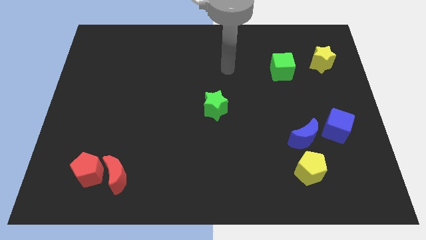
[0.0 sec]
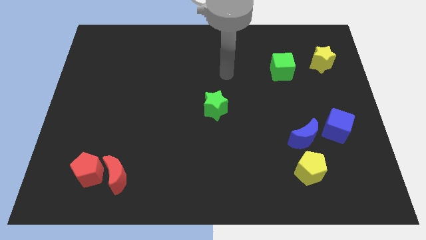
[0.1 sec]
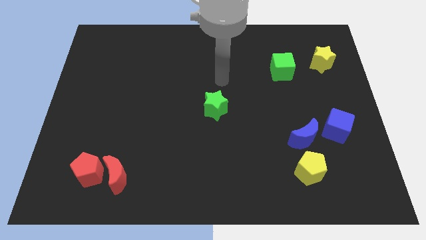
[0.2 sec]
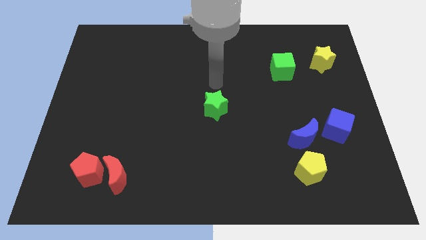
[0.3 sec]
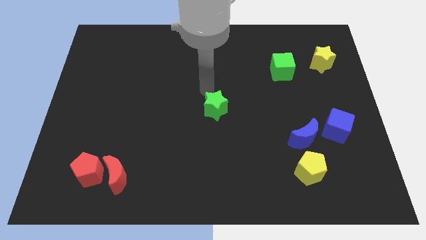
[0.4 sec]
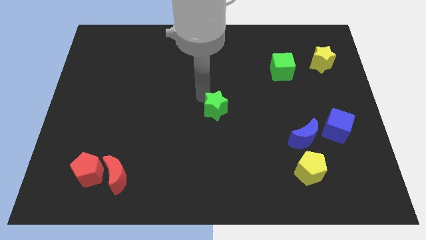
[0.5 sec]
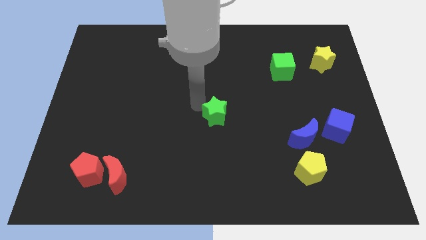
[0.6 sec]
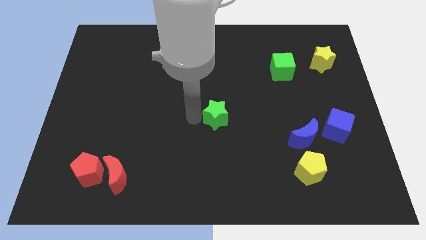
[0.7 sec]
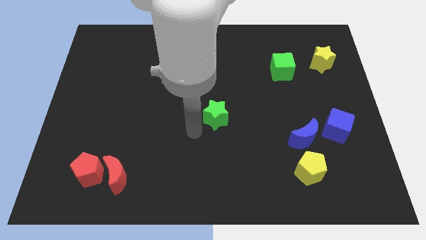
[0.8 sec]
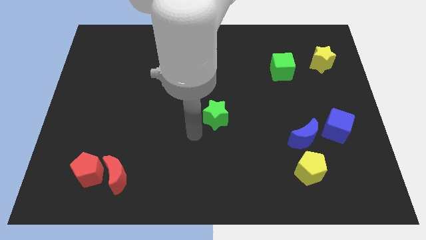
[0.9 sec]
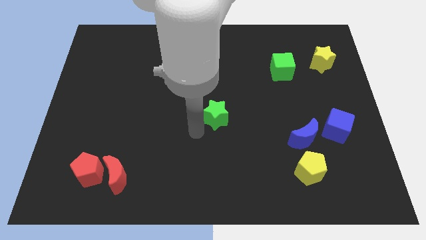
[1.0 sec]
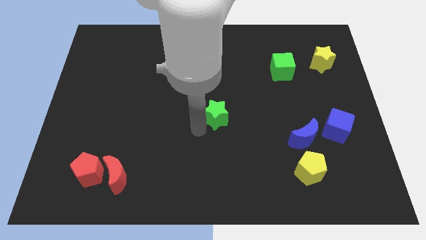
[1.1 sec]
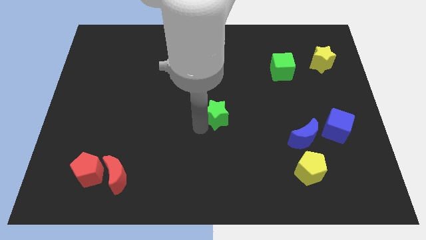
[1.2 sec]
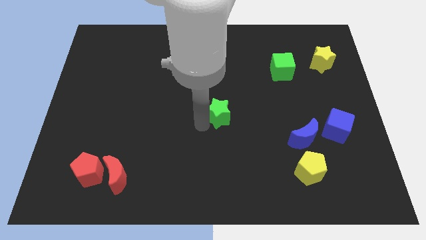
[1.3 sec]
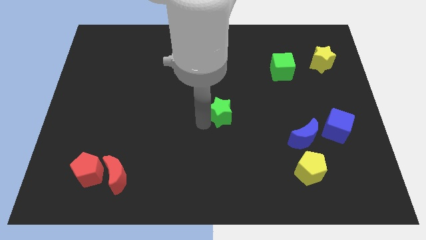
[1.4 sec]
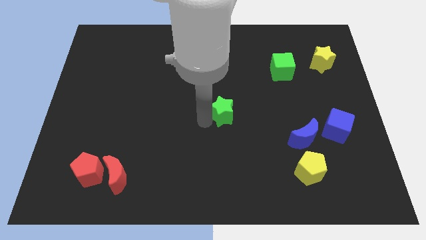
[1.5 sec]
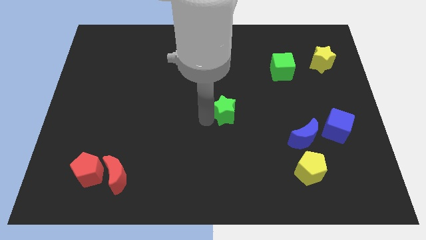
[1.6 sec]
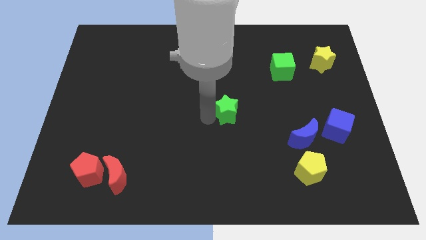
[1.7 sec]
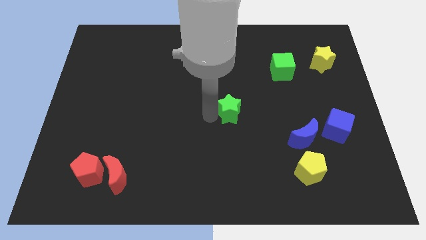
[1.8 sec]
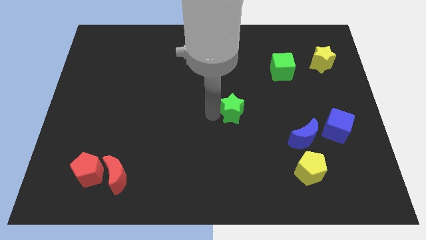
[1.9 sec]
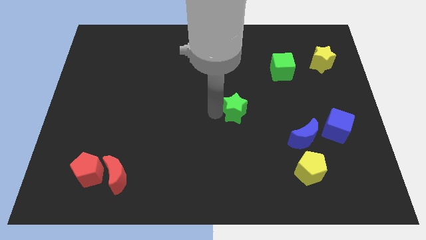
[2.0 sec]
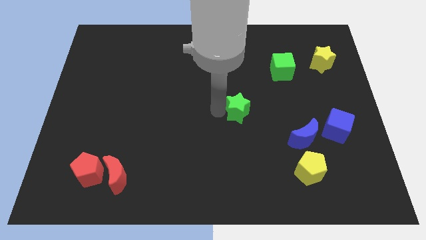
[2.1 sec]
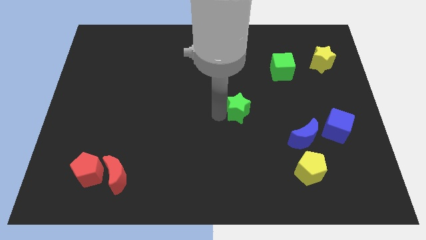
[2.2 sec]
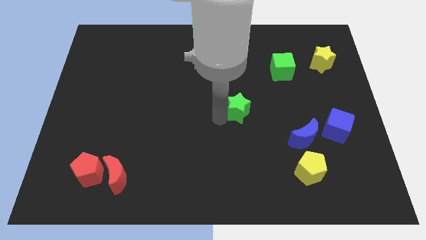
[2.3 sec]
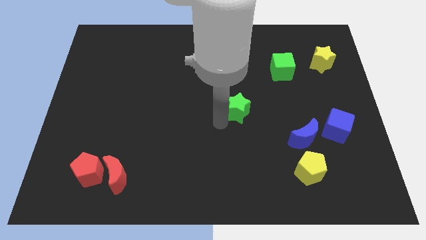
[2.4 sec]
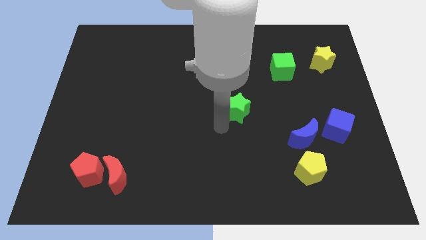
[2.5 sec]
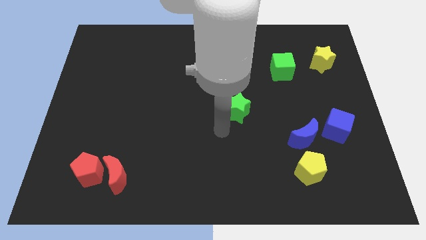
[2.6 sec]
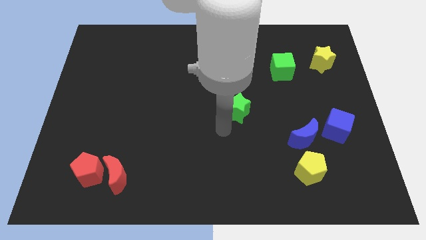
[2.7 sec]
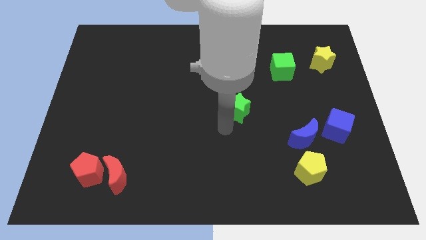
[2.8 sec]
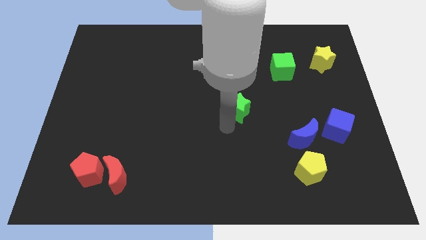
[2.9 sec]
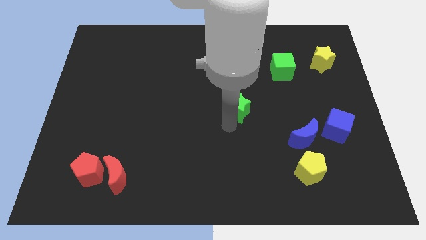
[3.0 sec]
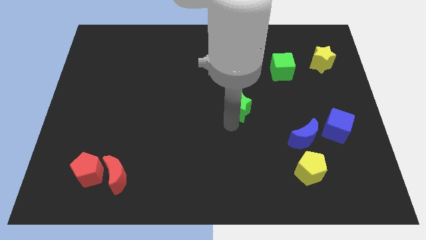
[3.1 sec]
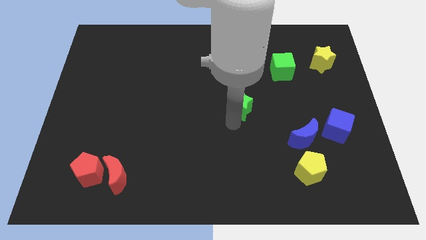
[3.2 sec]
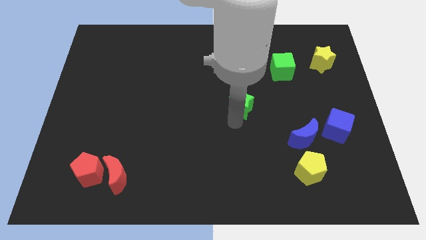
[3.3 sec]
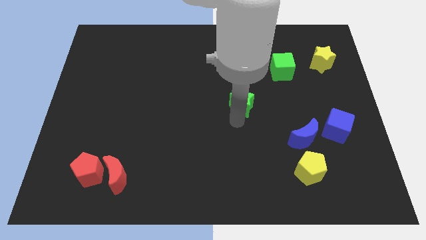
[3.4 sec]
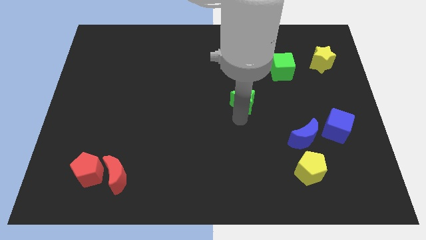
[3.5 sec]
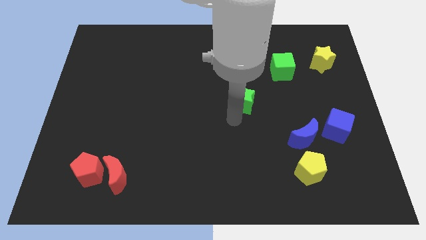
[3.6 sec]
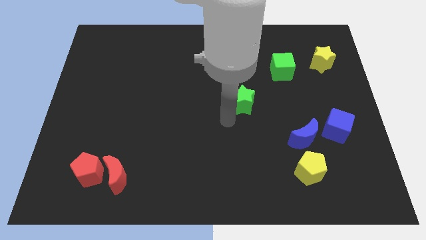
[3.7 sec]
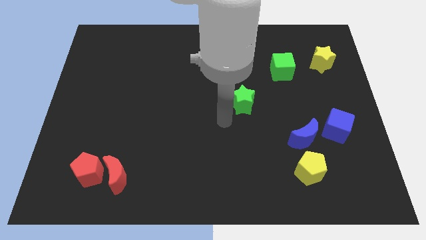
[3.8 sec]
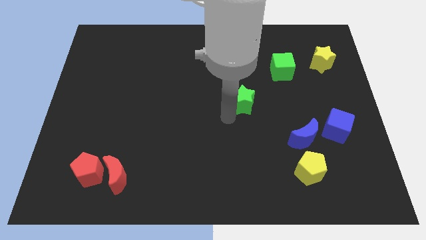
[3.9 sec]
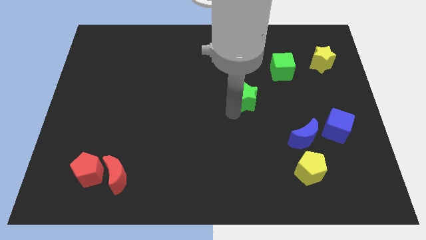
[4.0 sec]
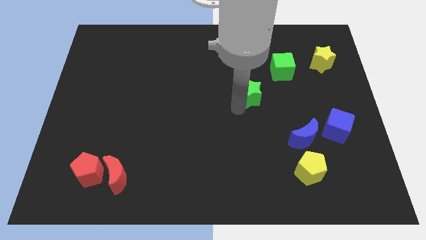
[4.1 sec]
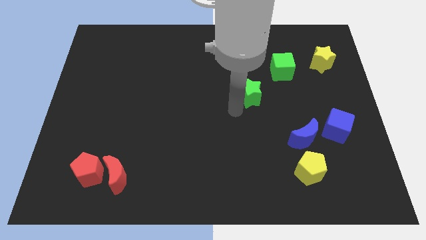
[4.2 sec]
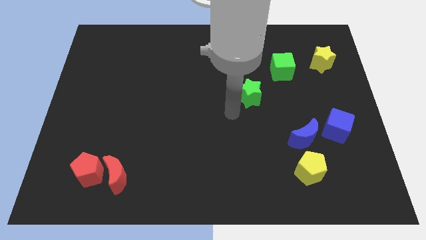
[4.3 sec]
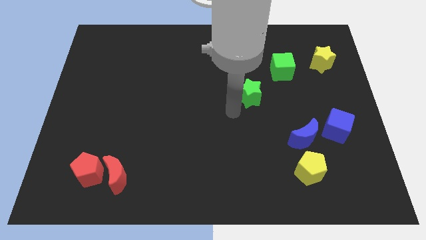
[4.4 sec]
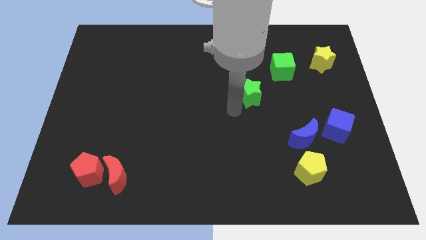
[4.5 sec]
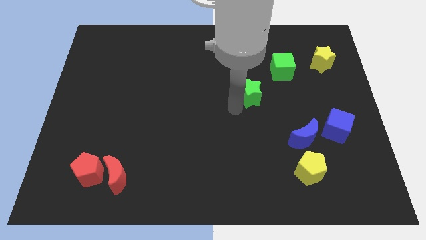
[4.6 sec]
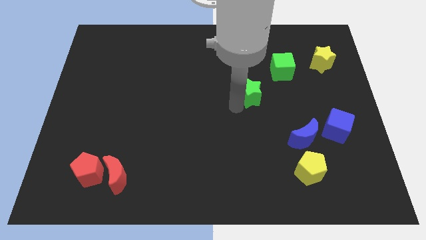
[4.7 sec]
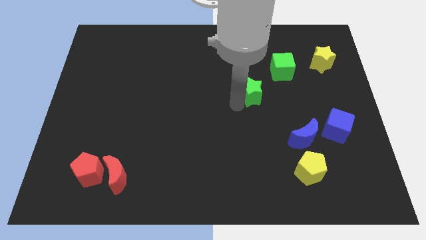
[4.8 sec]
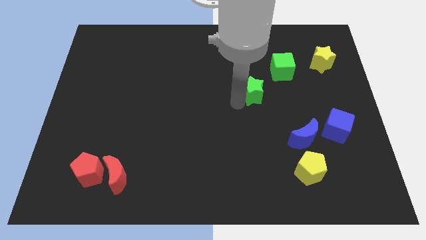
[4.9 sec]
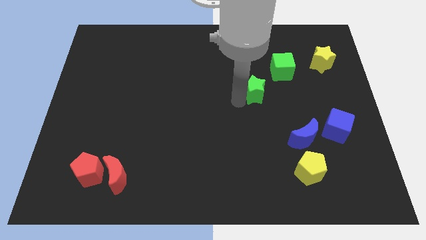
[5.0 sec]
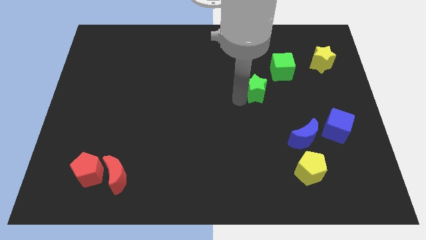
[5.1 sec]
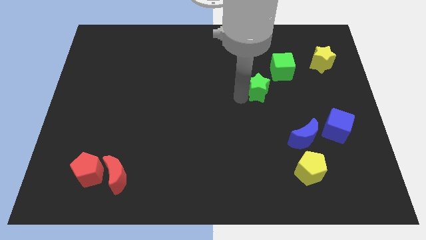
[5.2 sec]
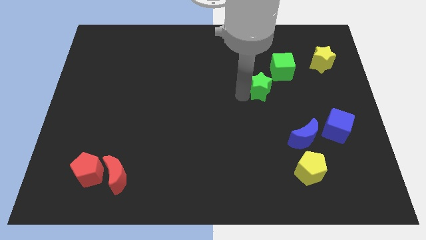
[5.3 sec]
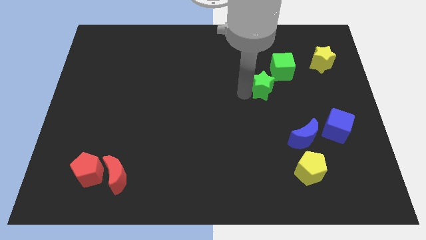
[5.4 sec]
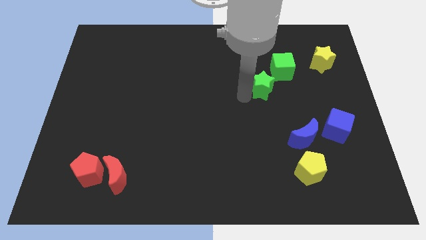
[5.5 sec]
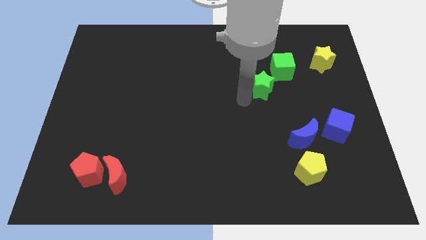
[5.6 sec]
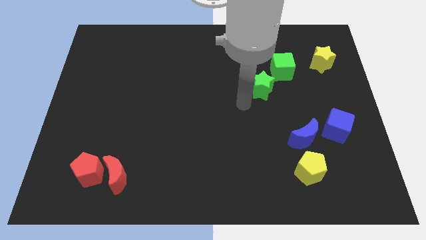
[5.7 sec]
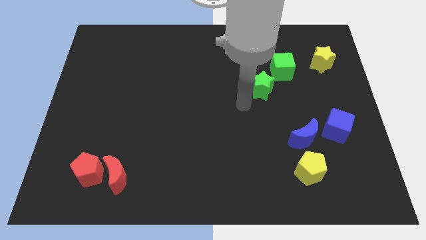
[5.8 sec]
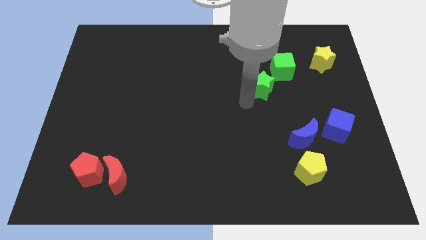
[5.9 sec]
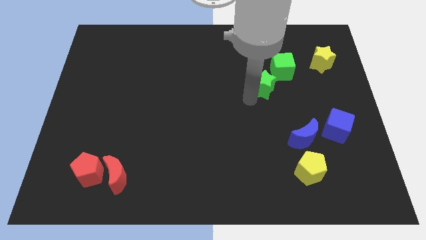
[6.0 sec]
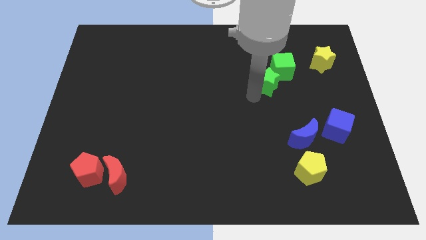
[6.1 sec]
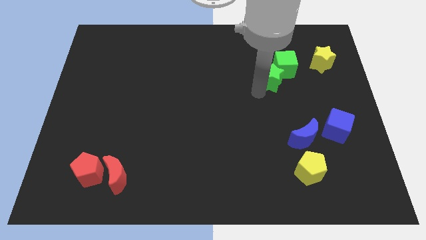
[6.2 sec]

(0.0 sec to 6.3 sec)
put the green star to the green cube
